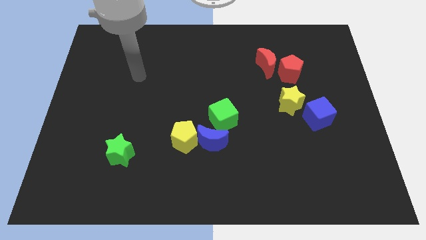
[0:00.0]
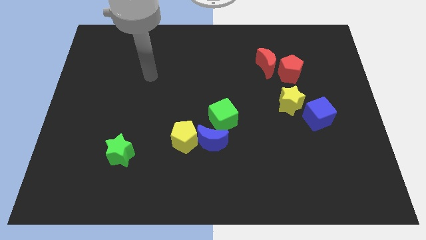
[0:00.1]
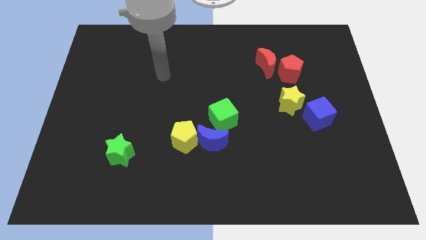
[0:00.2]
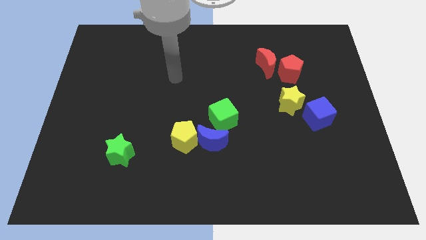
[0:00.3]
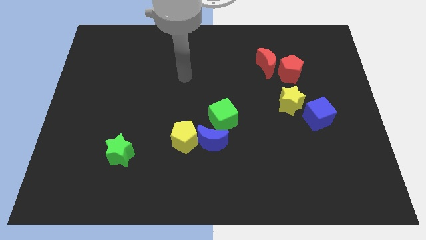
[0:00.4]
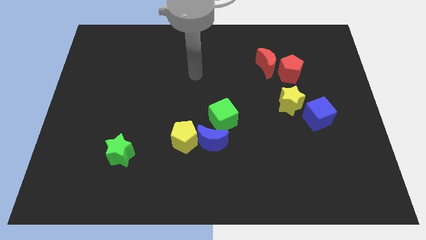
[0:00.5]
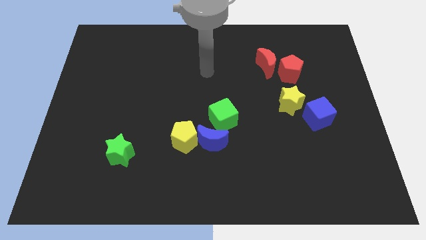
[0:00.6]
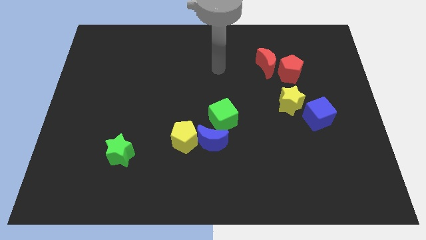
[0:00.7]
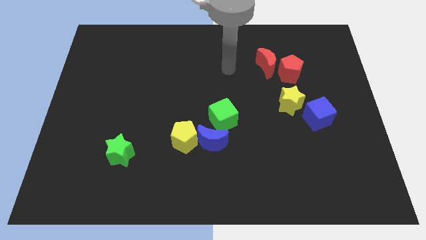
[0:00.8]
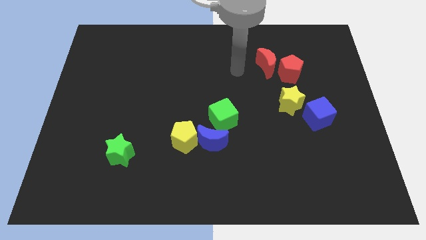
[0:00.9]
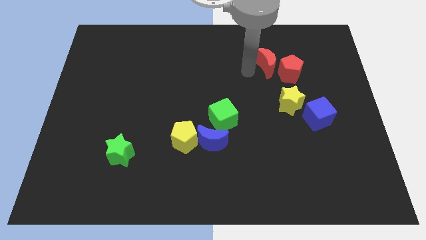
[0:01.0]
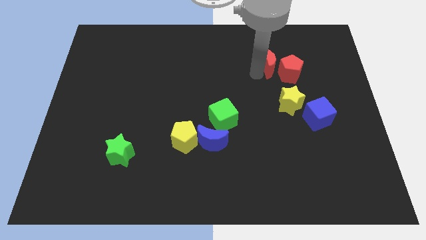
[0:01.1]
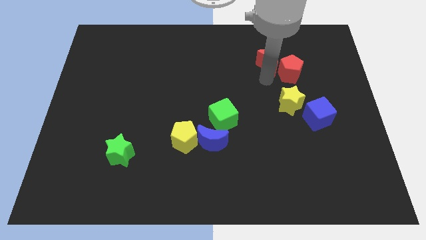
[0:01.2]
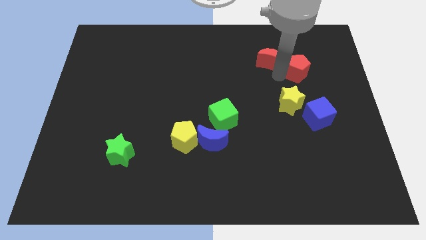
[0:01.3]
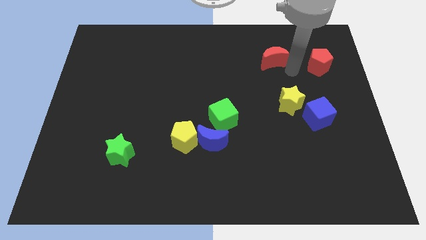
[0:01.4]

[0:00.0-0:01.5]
pull the red moon apart from the red pentagon

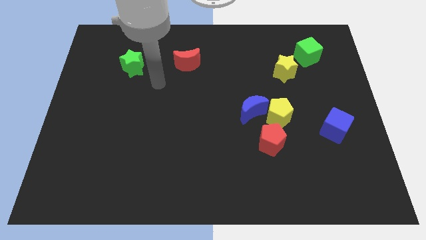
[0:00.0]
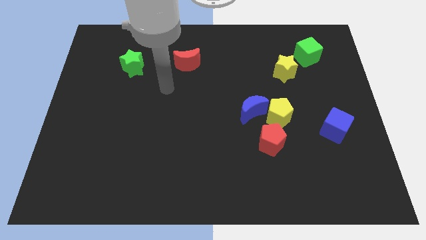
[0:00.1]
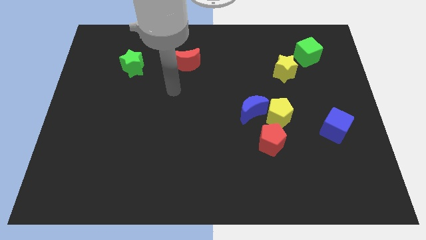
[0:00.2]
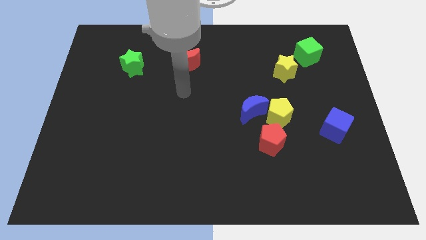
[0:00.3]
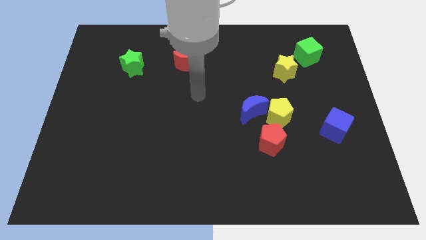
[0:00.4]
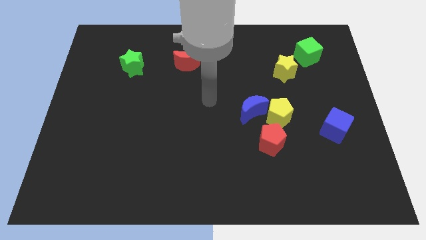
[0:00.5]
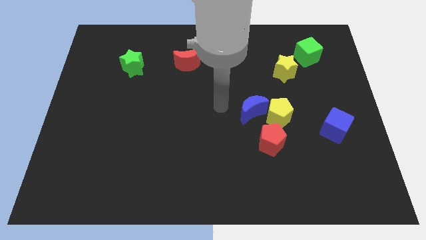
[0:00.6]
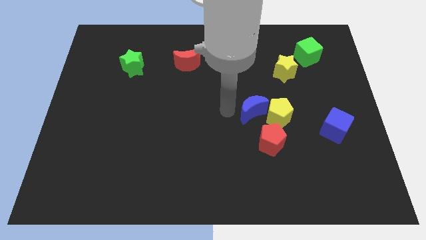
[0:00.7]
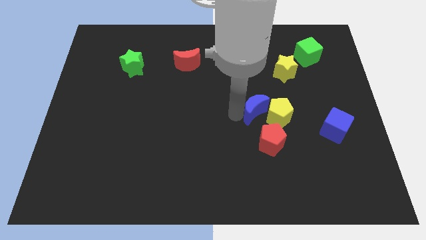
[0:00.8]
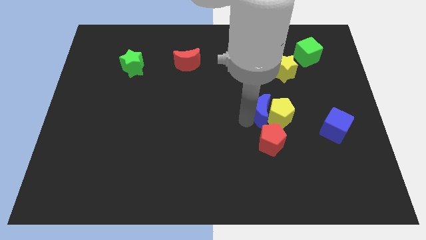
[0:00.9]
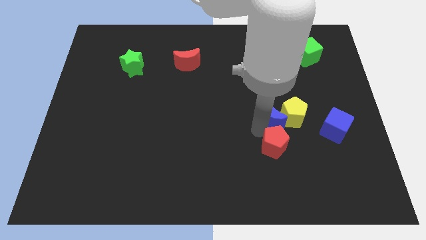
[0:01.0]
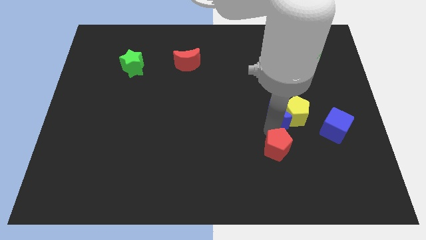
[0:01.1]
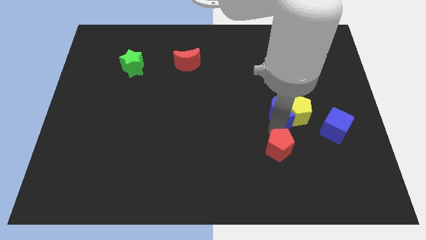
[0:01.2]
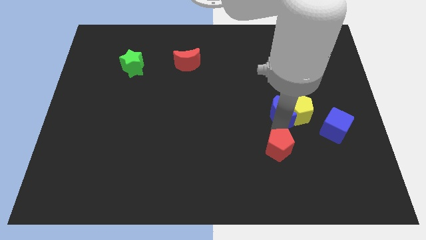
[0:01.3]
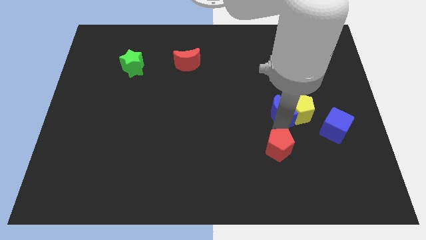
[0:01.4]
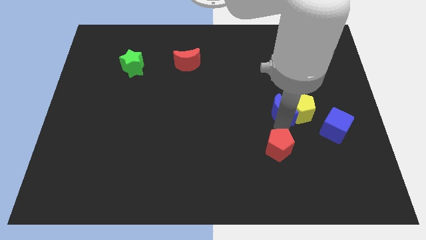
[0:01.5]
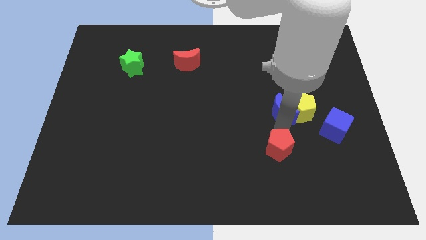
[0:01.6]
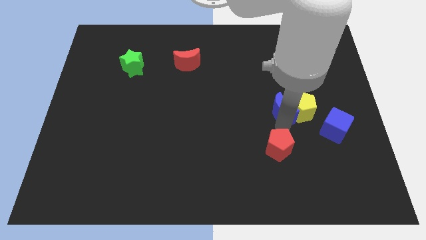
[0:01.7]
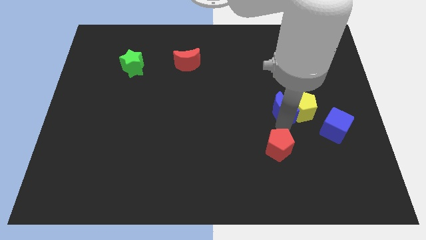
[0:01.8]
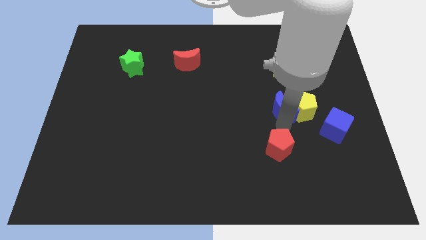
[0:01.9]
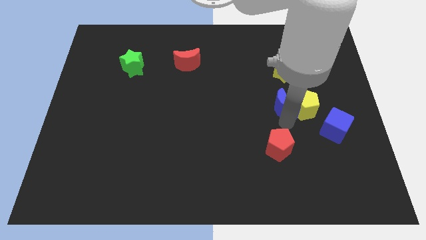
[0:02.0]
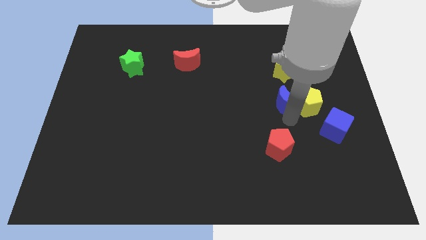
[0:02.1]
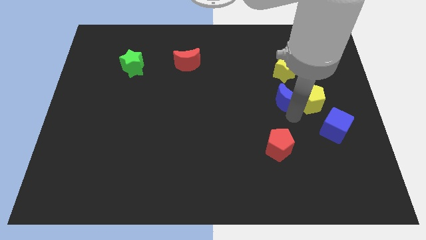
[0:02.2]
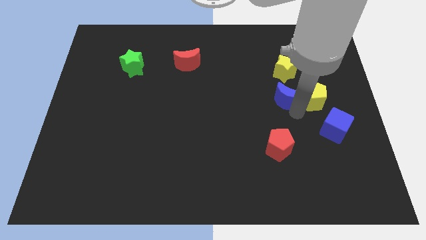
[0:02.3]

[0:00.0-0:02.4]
pull the yellow pentagon apart from the blue moon and red pentagon

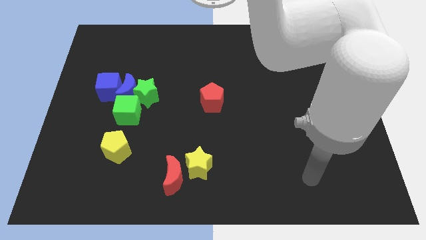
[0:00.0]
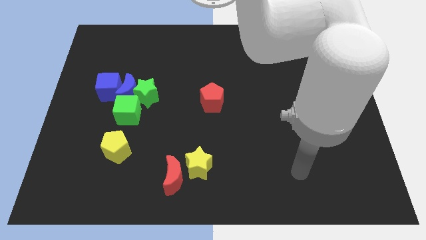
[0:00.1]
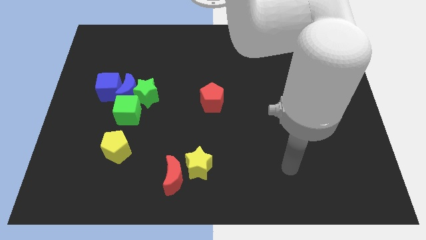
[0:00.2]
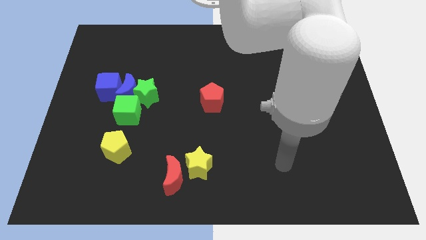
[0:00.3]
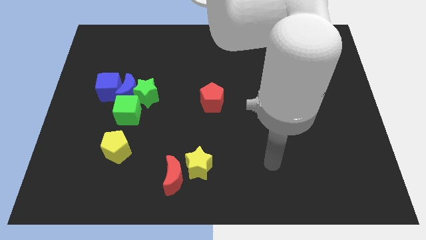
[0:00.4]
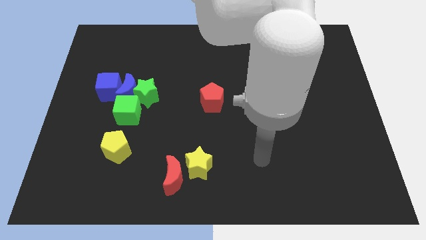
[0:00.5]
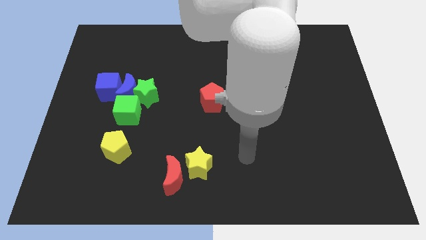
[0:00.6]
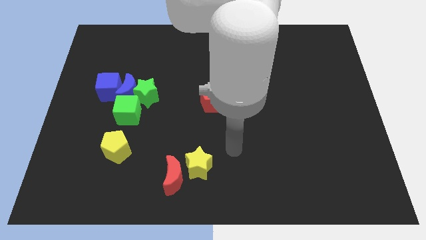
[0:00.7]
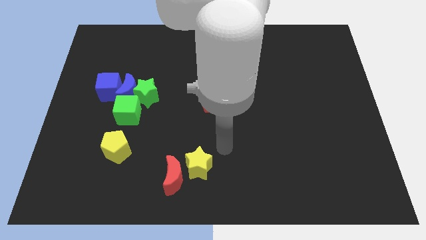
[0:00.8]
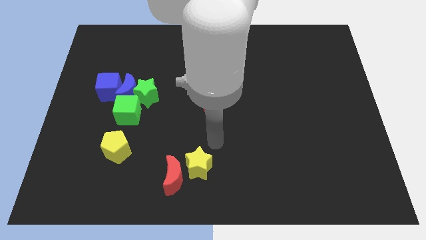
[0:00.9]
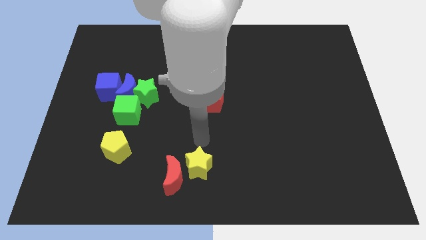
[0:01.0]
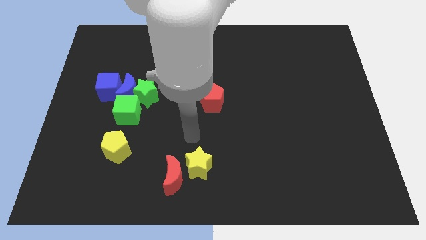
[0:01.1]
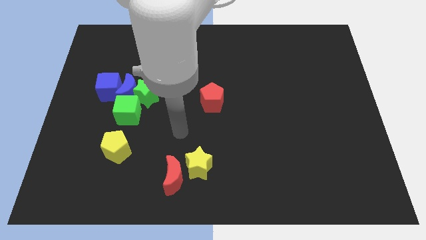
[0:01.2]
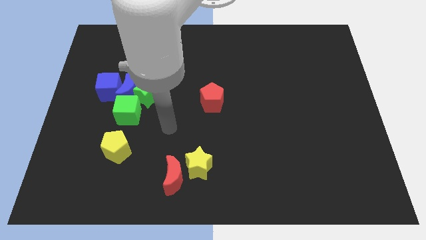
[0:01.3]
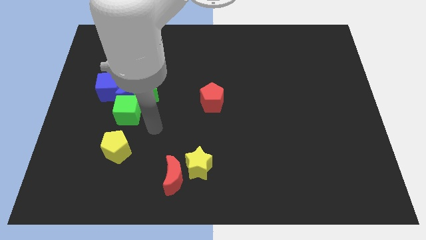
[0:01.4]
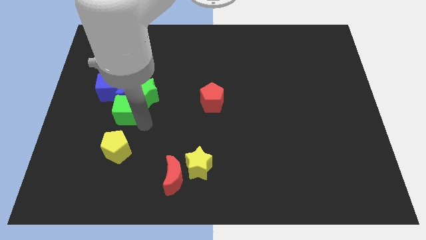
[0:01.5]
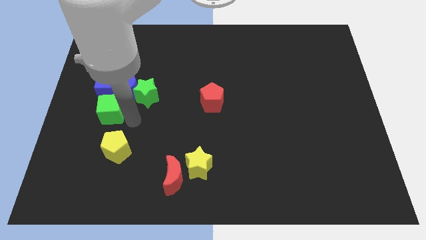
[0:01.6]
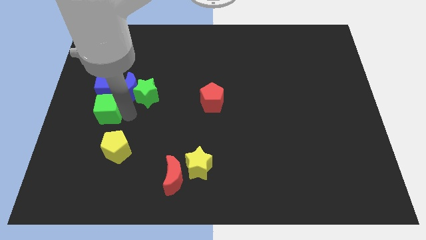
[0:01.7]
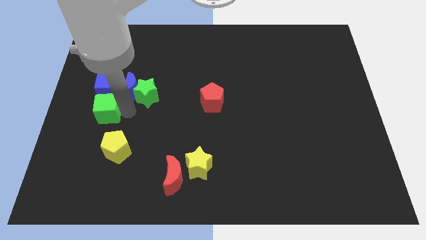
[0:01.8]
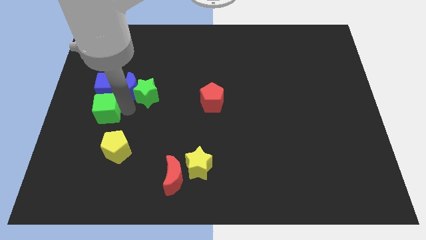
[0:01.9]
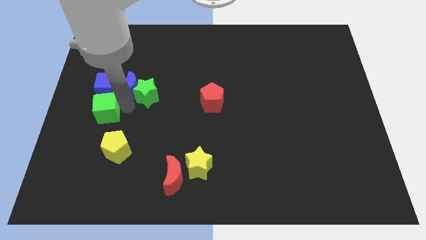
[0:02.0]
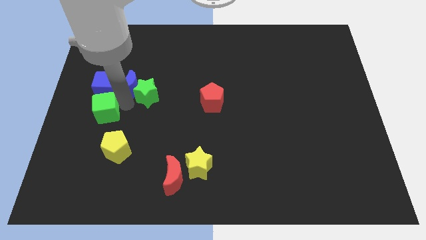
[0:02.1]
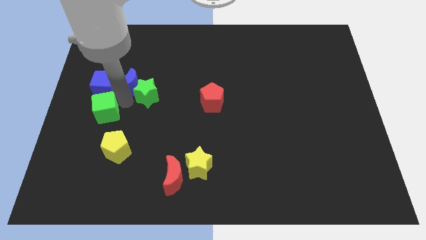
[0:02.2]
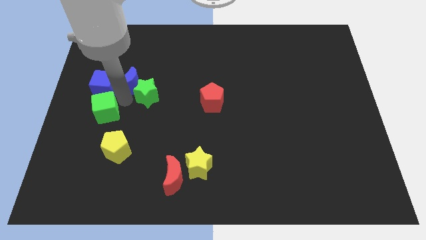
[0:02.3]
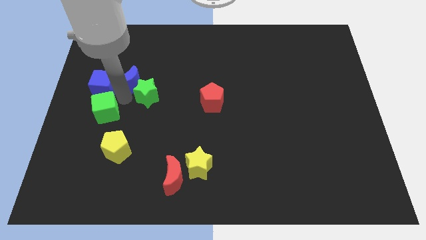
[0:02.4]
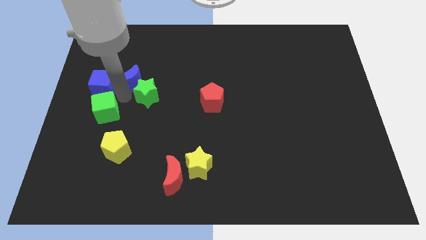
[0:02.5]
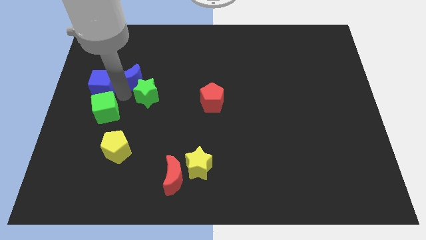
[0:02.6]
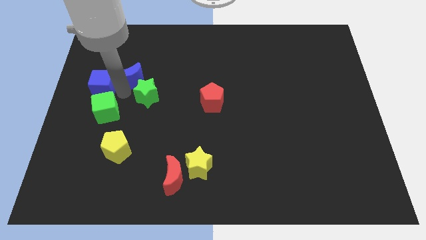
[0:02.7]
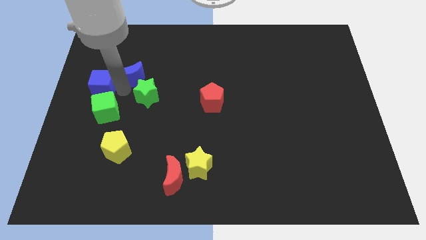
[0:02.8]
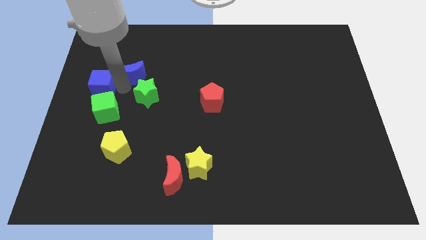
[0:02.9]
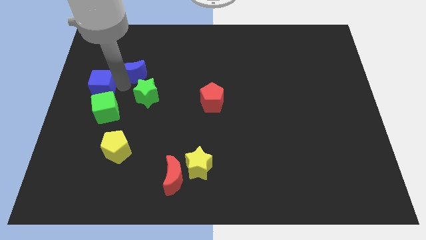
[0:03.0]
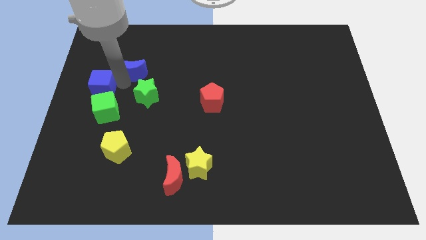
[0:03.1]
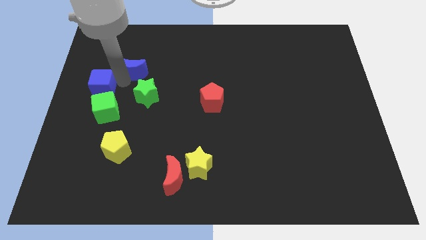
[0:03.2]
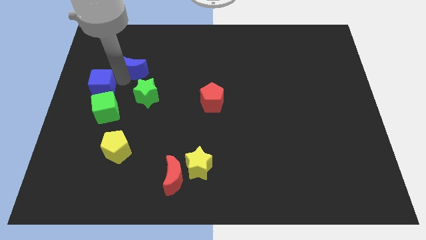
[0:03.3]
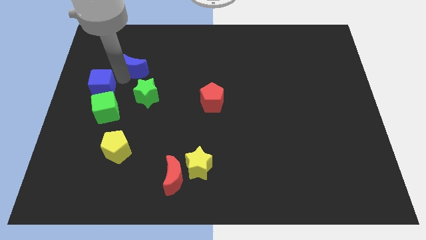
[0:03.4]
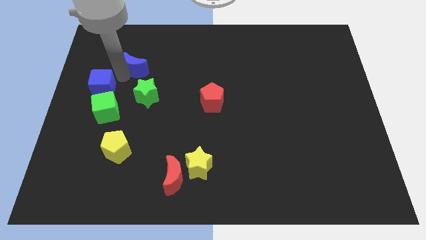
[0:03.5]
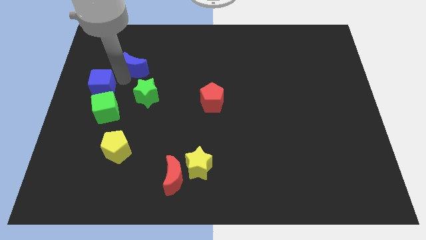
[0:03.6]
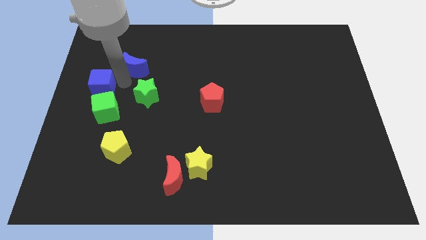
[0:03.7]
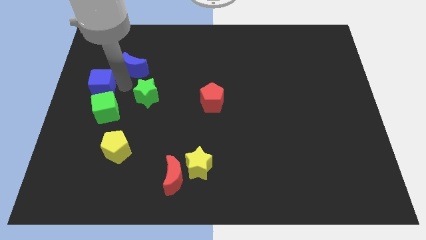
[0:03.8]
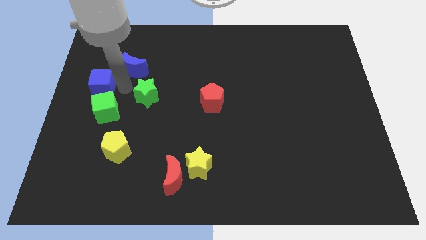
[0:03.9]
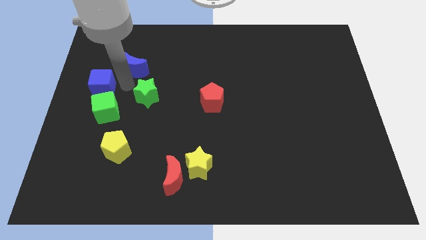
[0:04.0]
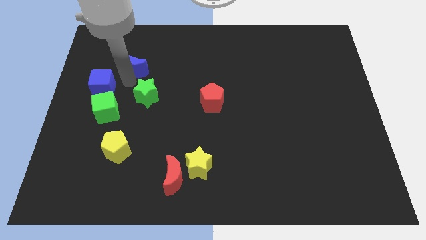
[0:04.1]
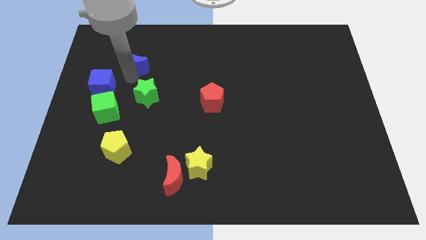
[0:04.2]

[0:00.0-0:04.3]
move the blue moon away from the green star, blue cube, and green cube

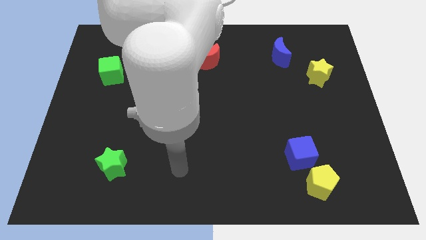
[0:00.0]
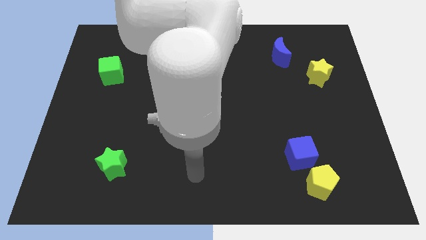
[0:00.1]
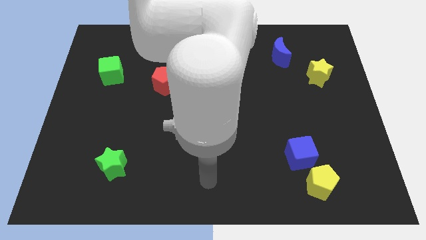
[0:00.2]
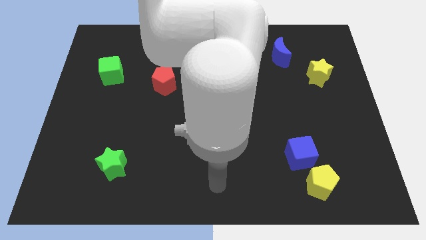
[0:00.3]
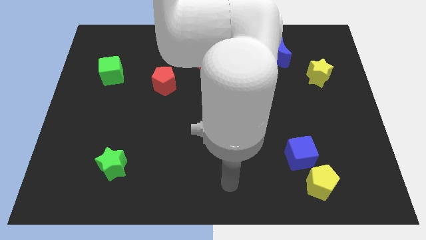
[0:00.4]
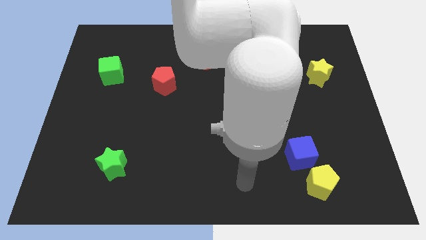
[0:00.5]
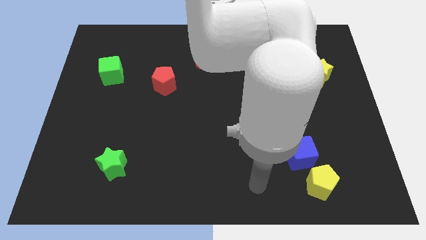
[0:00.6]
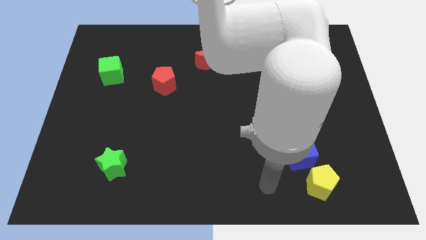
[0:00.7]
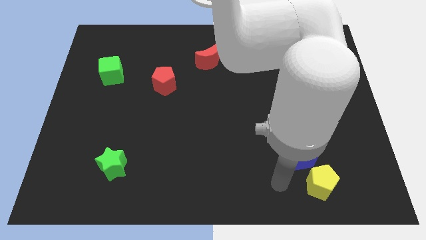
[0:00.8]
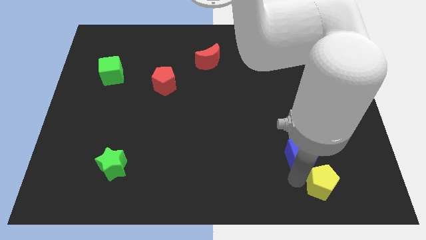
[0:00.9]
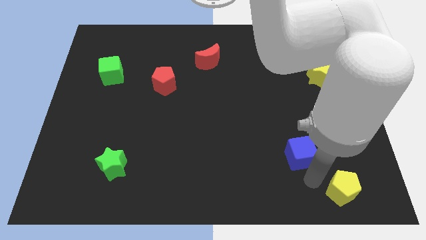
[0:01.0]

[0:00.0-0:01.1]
move the blue cube away from the yellow pentagon
